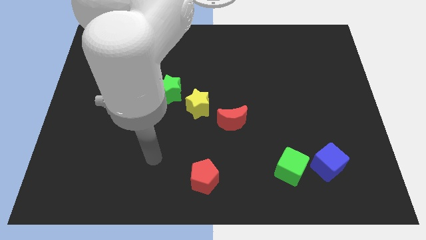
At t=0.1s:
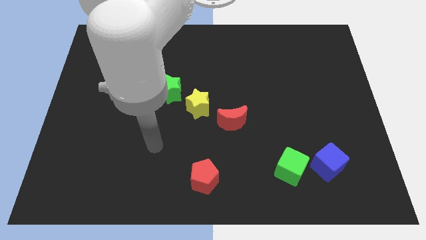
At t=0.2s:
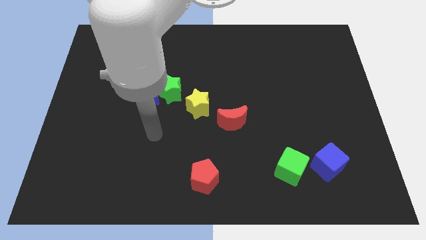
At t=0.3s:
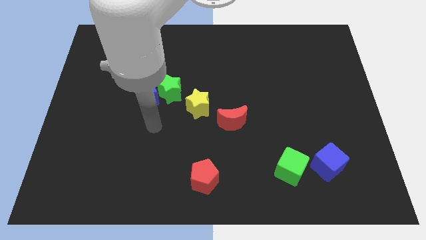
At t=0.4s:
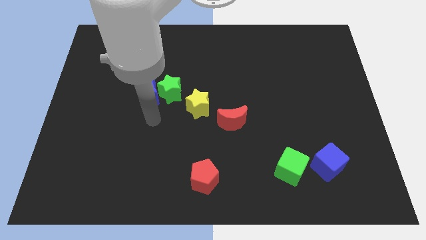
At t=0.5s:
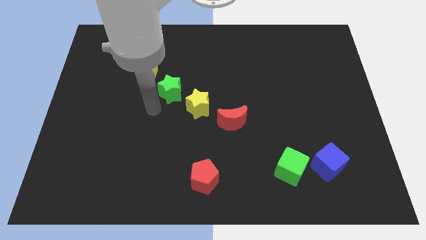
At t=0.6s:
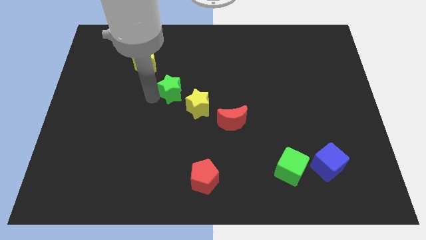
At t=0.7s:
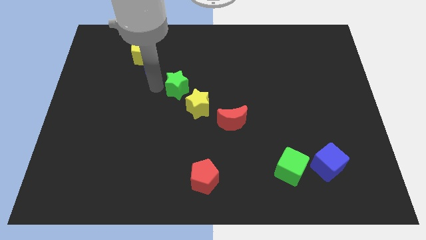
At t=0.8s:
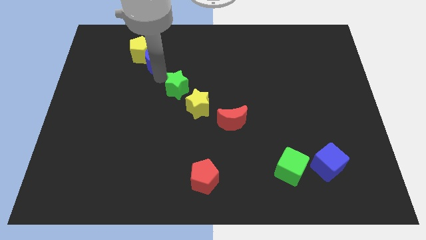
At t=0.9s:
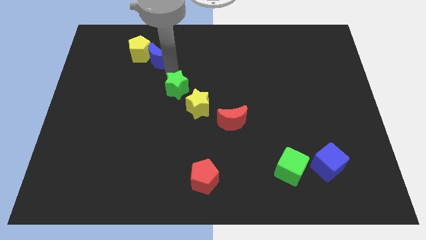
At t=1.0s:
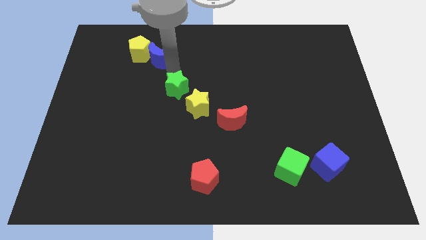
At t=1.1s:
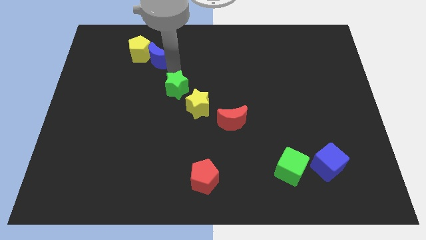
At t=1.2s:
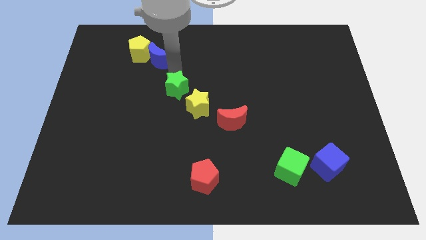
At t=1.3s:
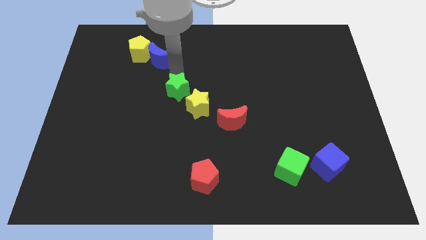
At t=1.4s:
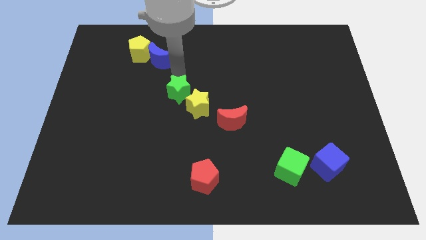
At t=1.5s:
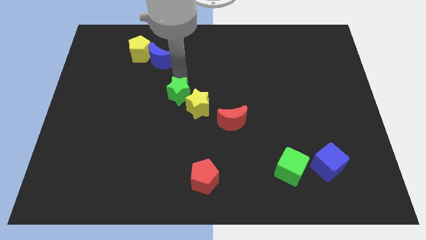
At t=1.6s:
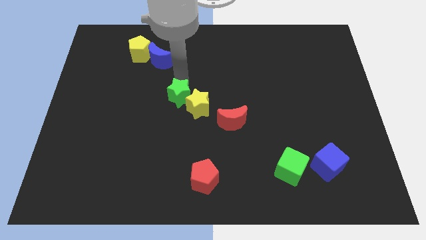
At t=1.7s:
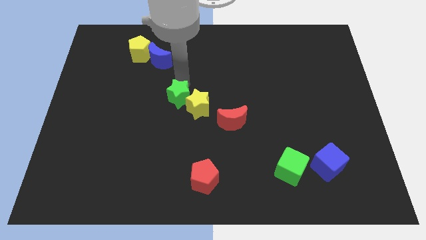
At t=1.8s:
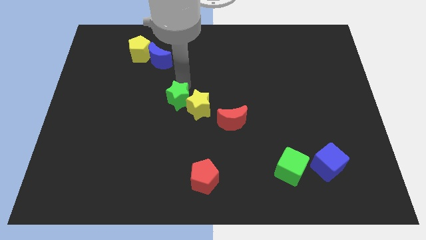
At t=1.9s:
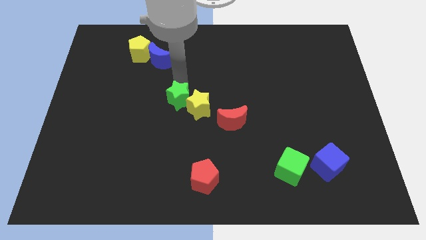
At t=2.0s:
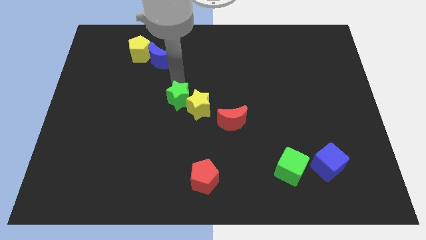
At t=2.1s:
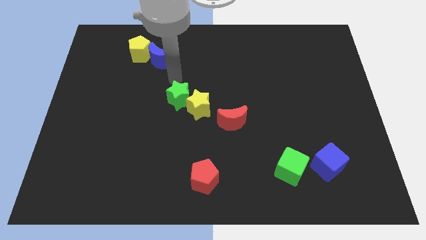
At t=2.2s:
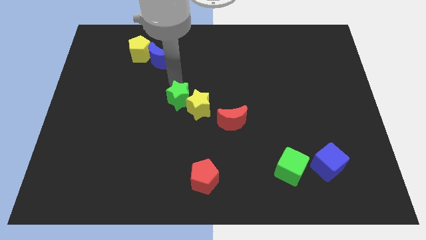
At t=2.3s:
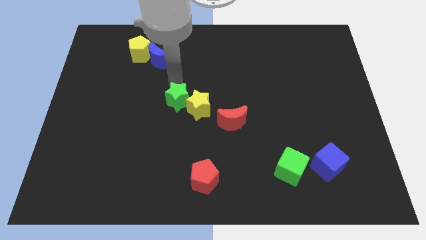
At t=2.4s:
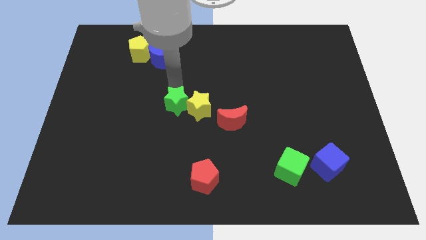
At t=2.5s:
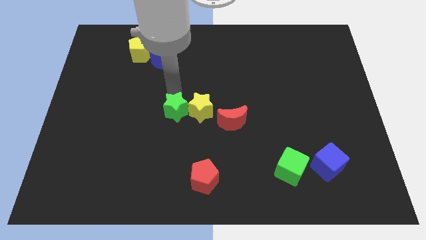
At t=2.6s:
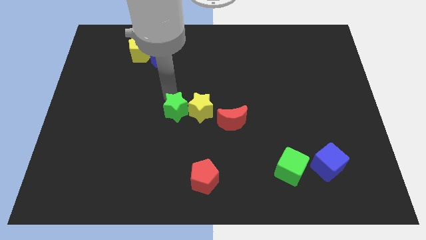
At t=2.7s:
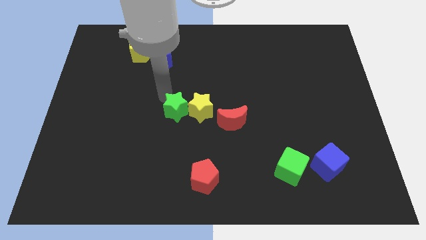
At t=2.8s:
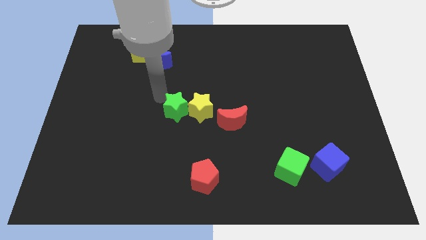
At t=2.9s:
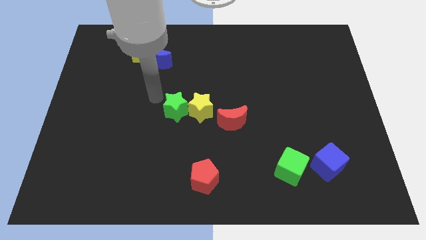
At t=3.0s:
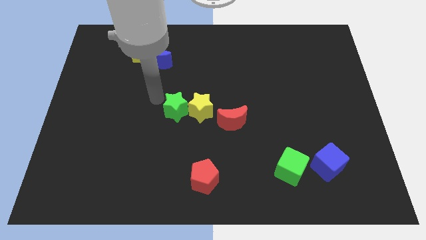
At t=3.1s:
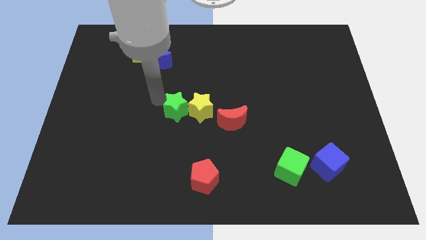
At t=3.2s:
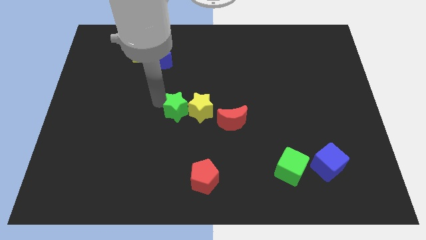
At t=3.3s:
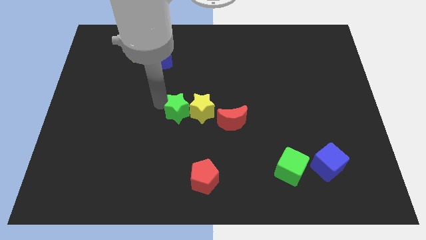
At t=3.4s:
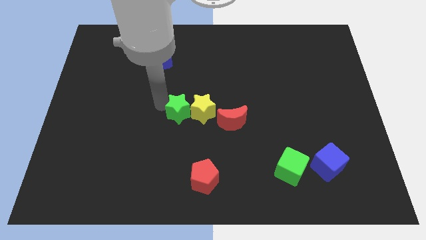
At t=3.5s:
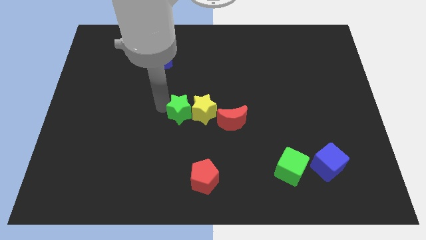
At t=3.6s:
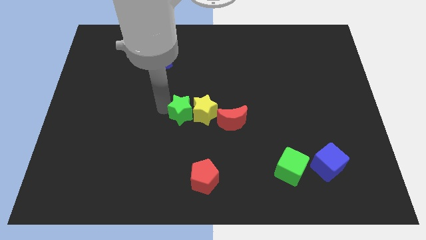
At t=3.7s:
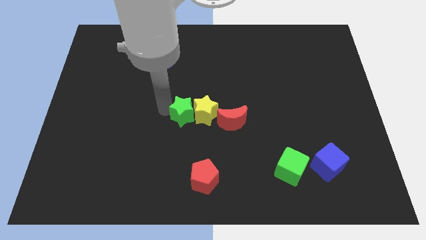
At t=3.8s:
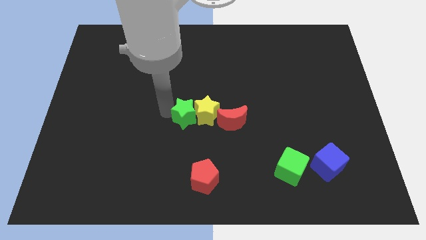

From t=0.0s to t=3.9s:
push the green star a little downwards and then to the right

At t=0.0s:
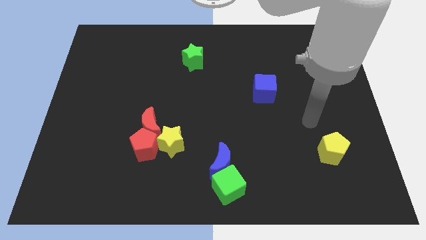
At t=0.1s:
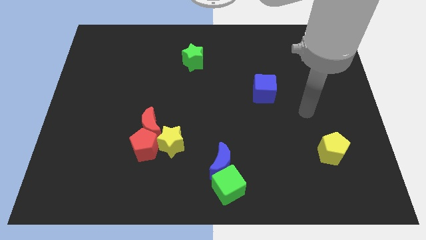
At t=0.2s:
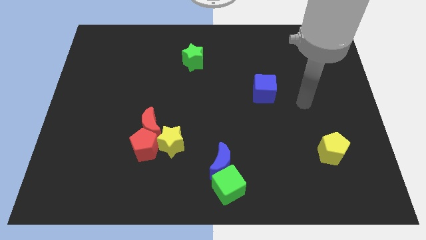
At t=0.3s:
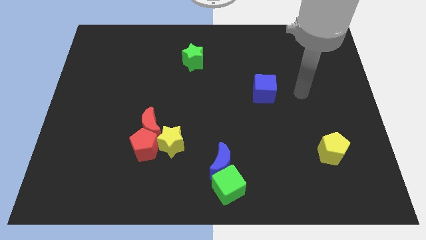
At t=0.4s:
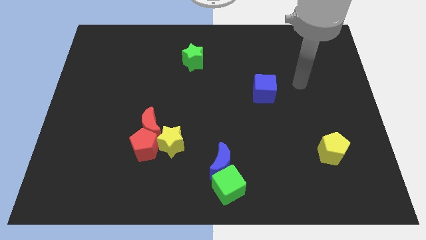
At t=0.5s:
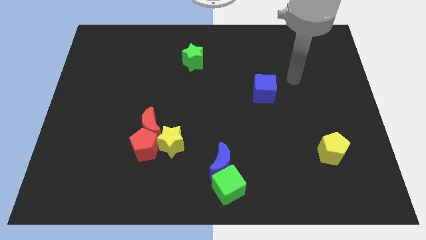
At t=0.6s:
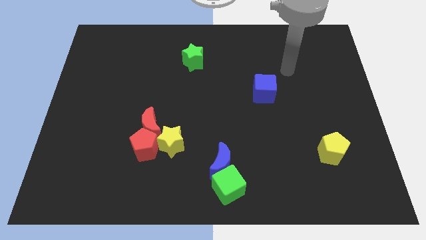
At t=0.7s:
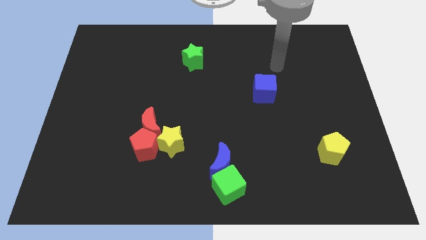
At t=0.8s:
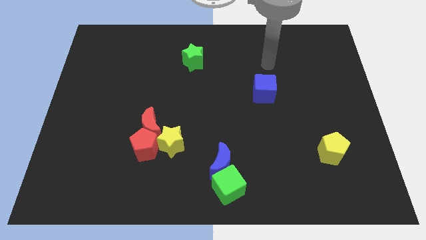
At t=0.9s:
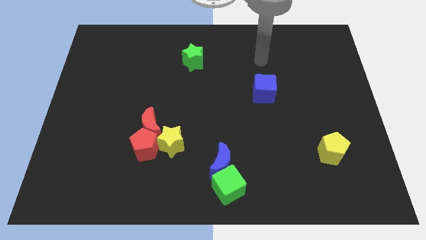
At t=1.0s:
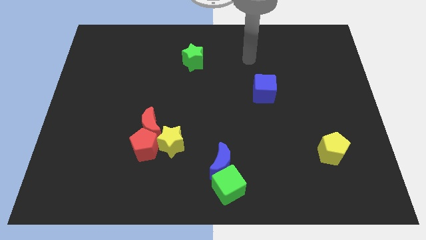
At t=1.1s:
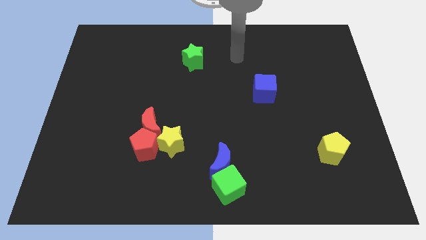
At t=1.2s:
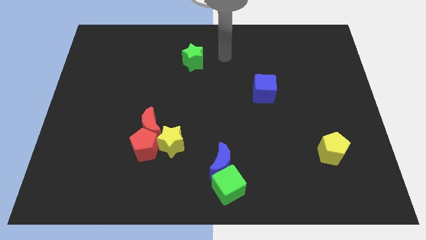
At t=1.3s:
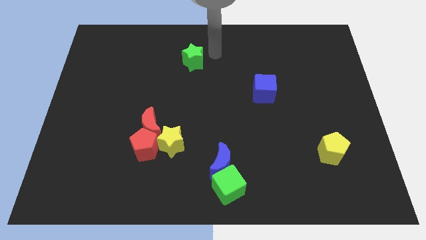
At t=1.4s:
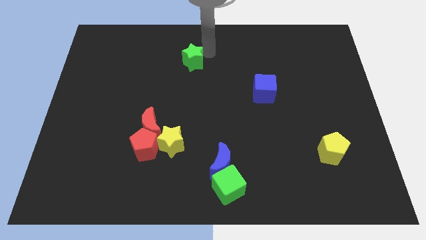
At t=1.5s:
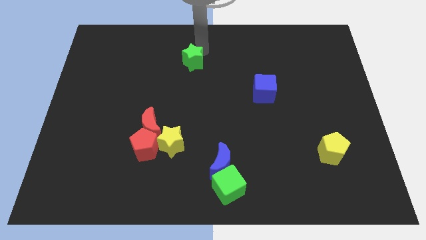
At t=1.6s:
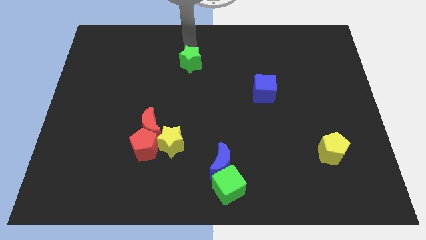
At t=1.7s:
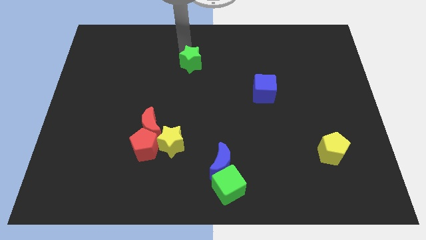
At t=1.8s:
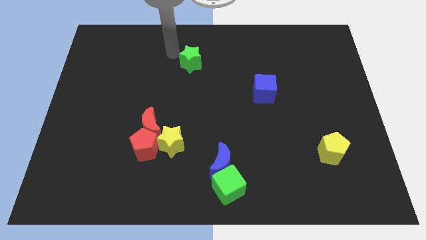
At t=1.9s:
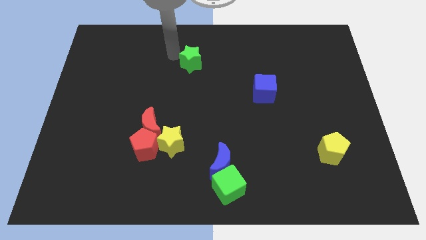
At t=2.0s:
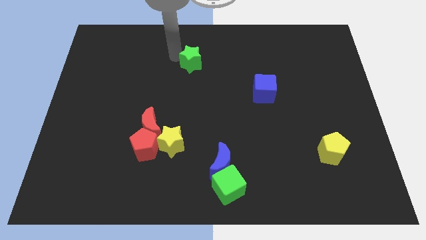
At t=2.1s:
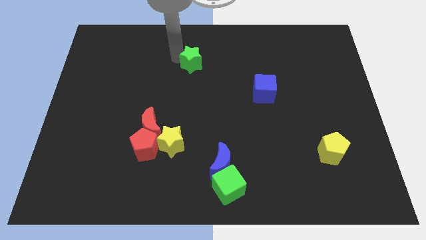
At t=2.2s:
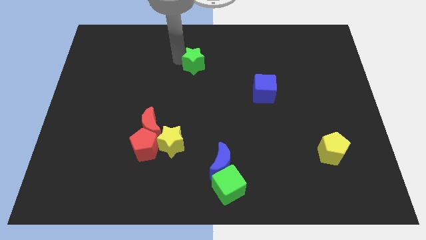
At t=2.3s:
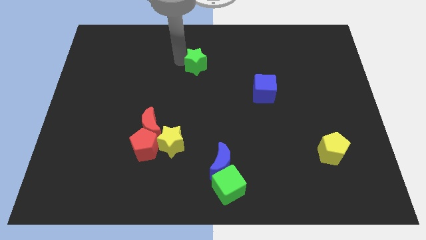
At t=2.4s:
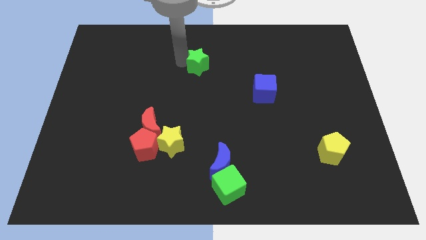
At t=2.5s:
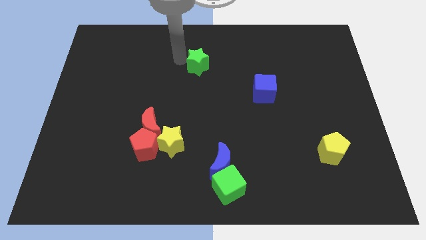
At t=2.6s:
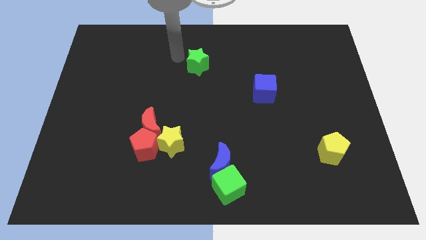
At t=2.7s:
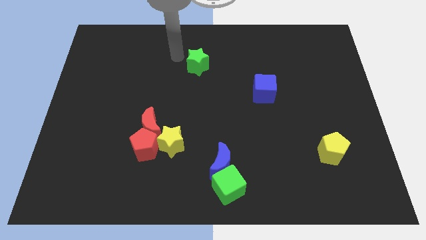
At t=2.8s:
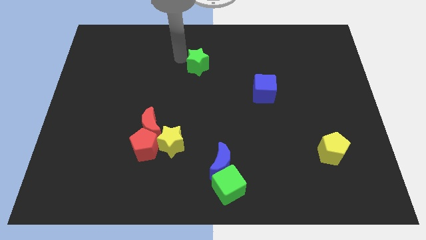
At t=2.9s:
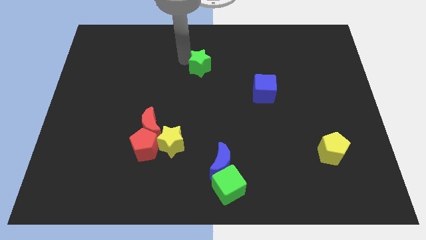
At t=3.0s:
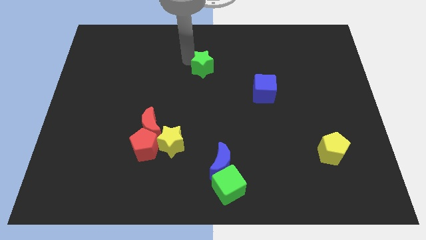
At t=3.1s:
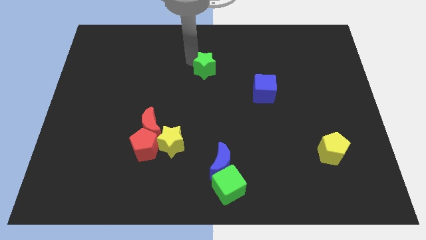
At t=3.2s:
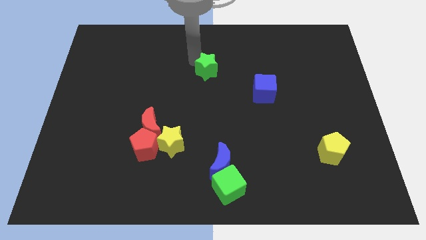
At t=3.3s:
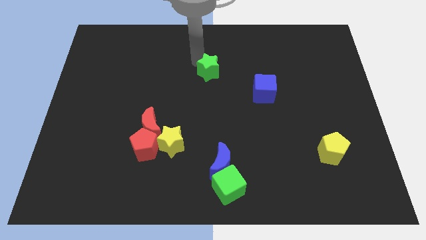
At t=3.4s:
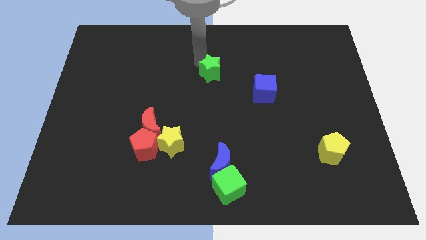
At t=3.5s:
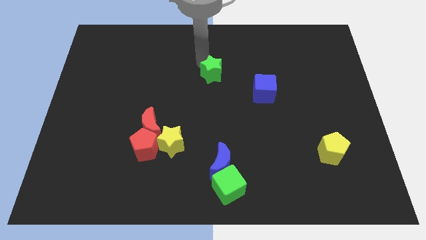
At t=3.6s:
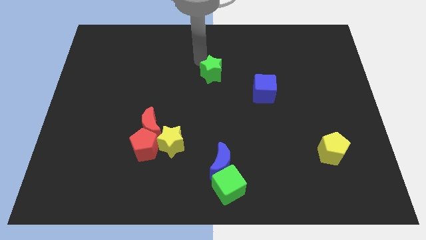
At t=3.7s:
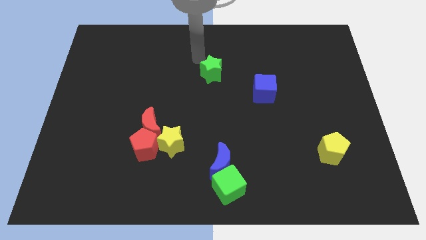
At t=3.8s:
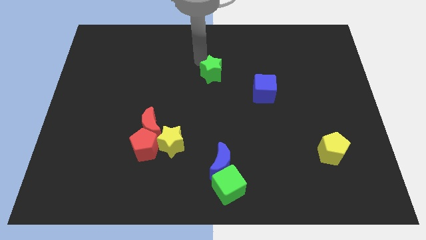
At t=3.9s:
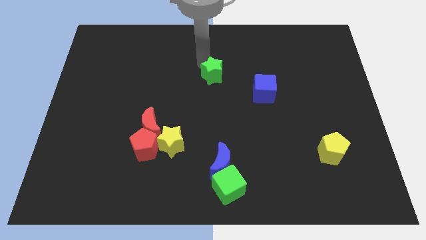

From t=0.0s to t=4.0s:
slide the green star downwards and right somewhat
